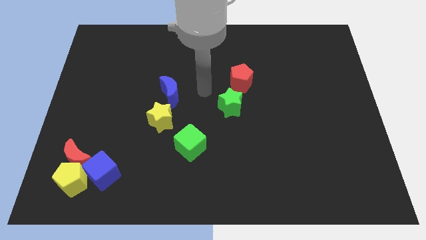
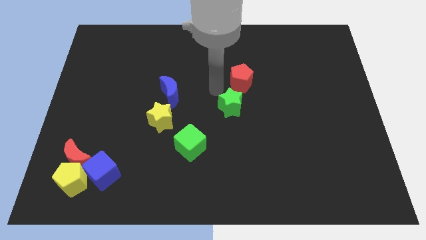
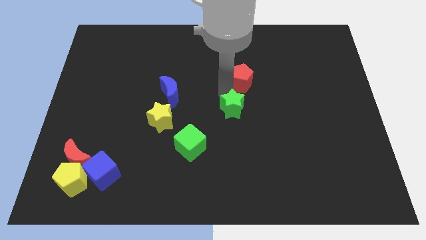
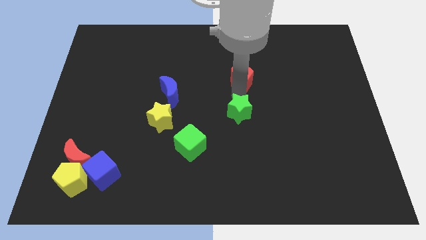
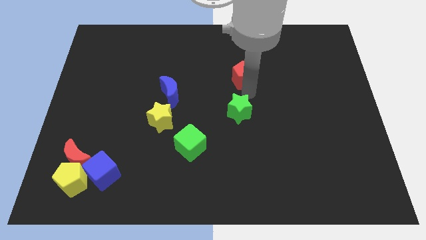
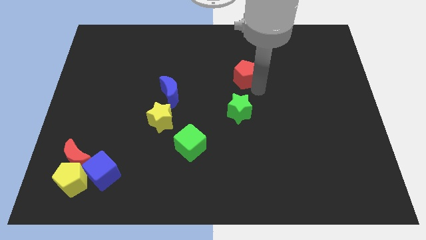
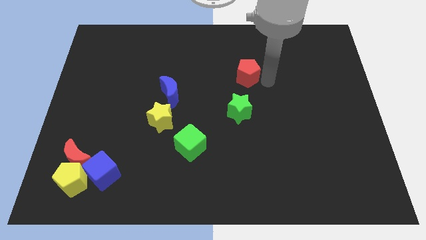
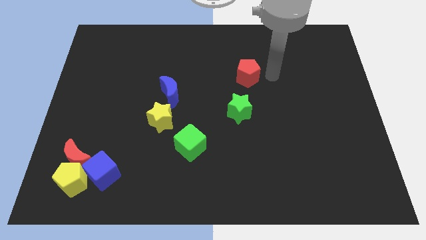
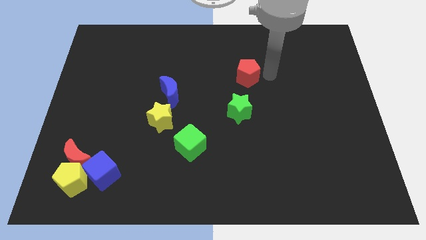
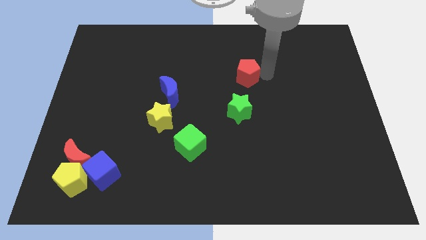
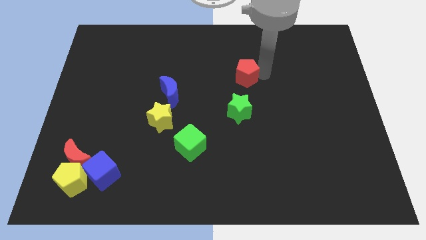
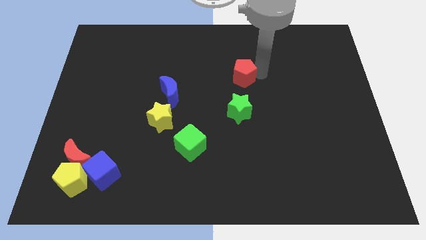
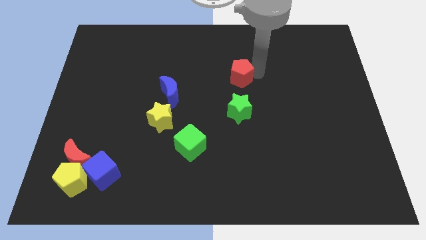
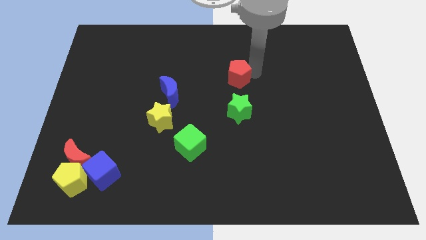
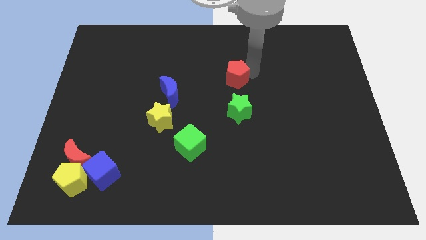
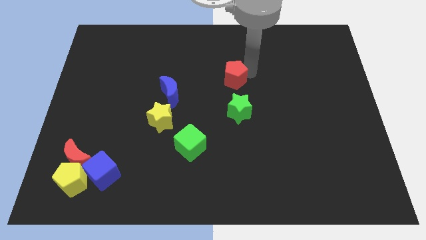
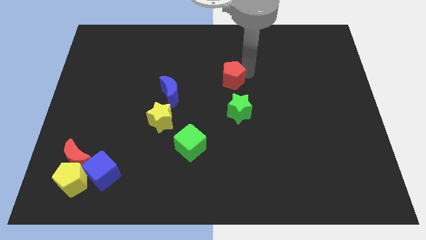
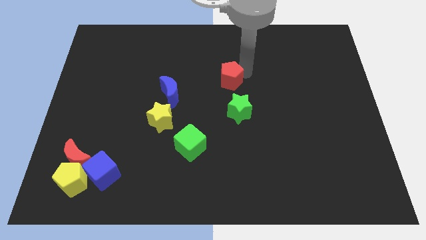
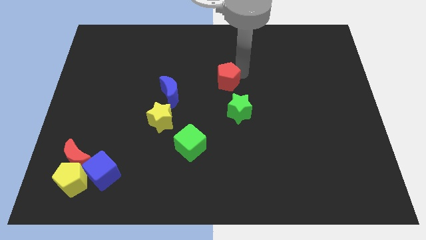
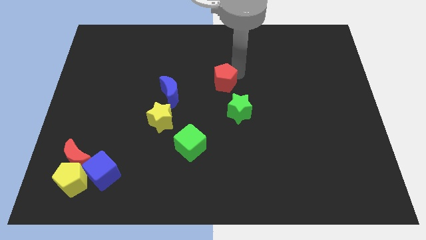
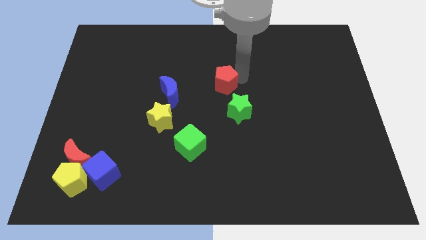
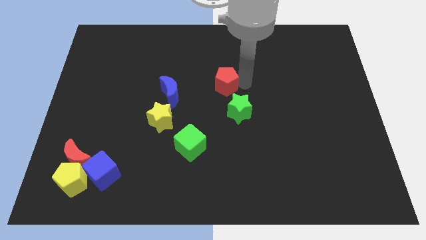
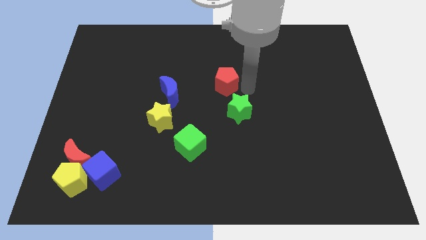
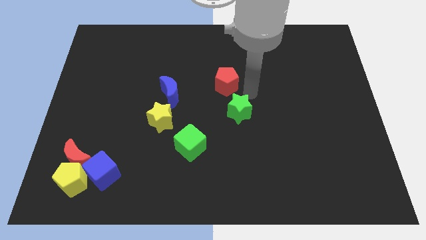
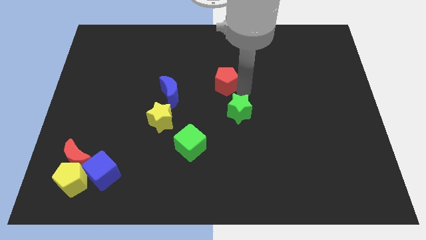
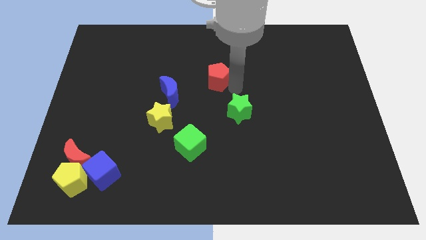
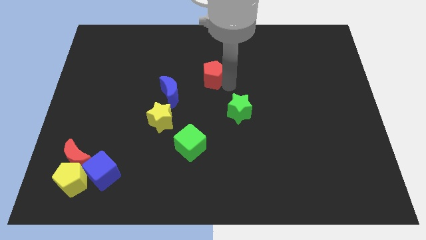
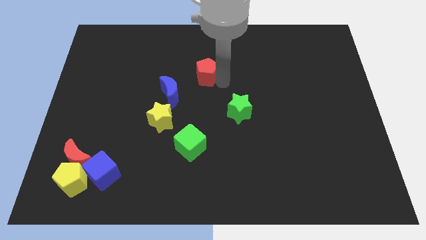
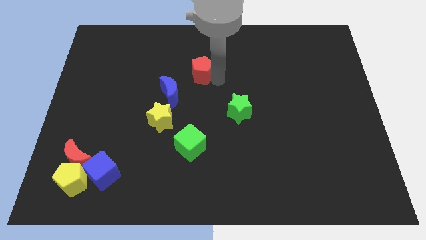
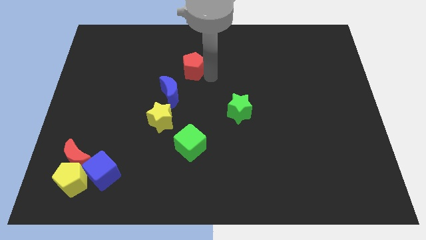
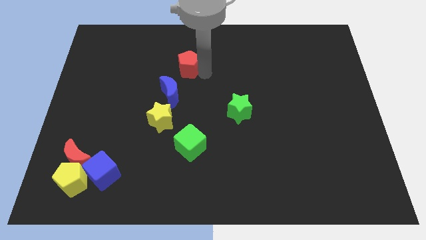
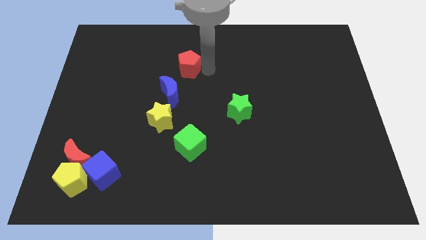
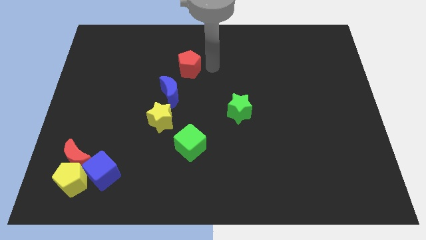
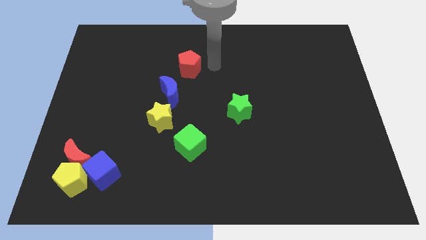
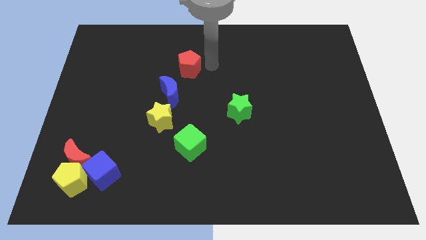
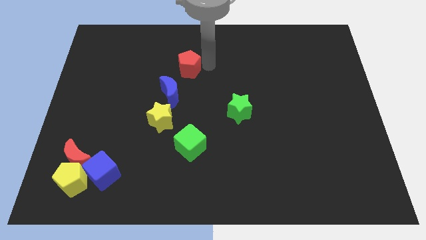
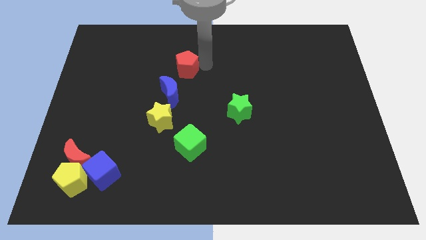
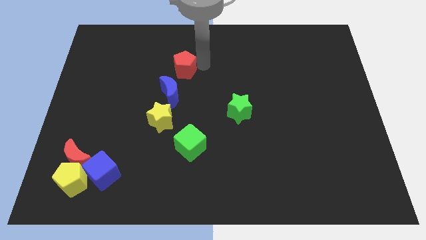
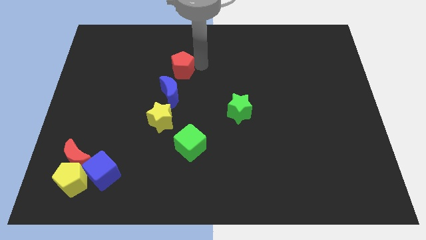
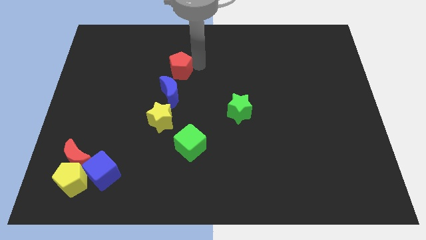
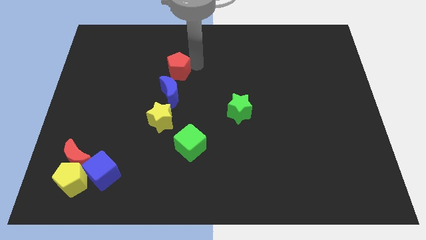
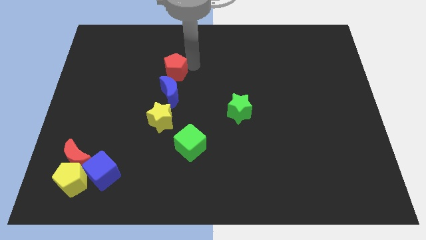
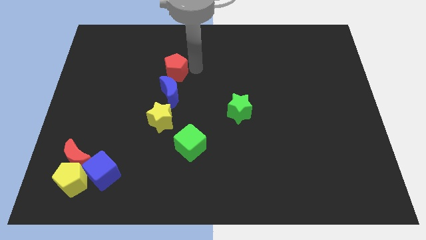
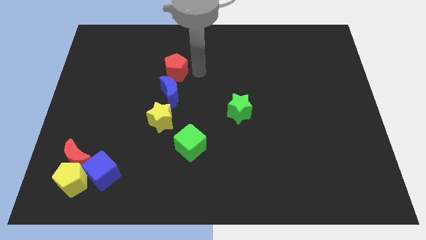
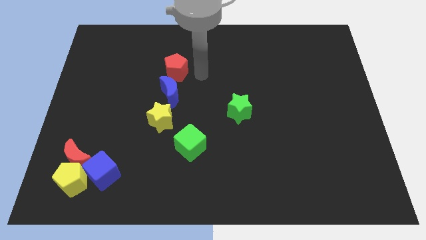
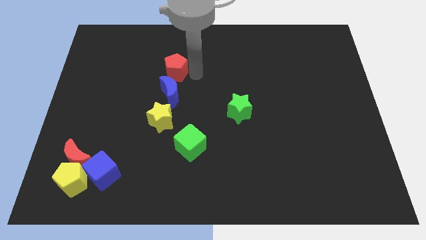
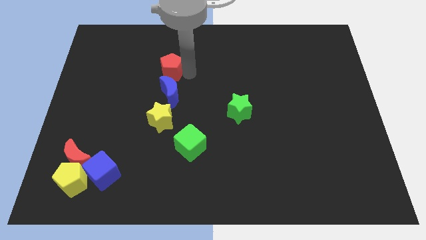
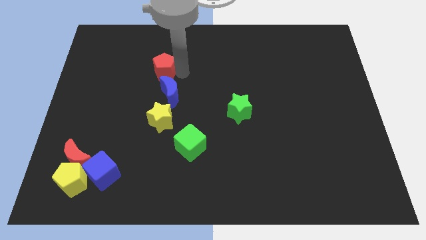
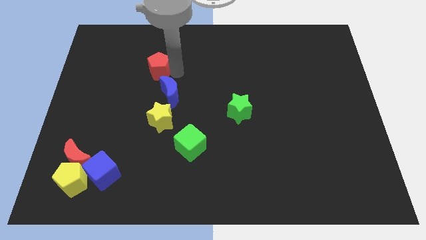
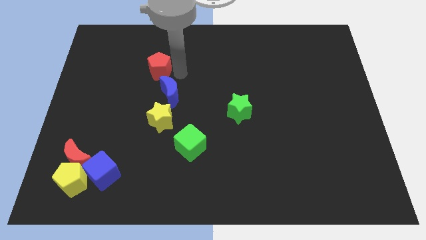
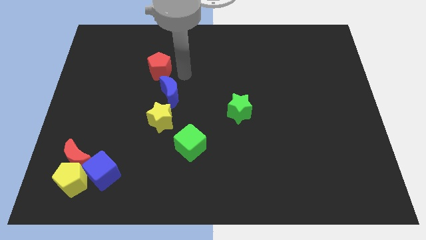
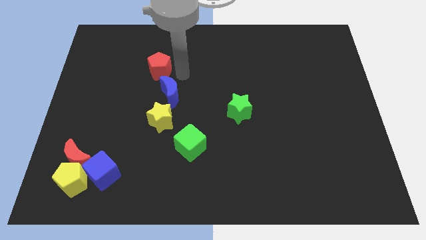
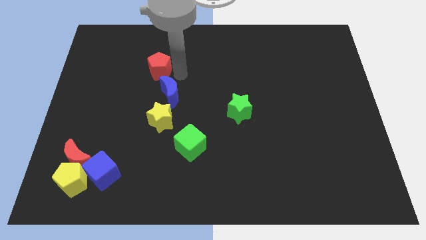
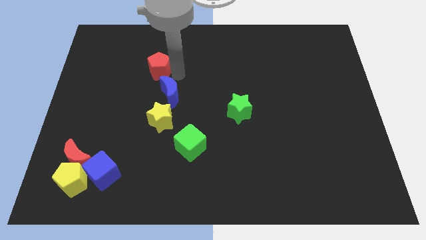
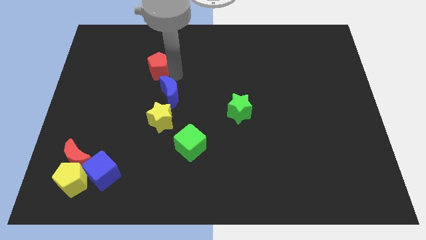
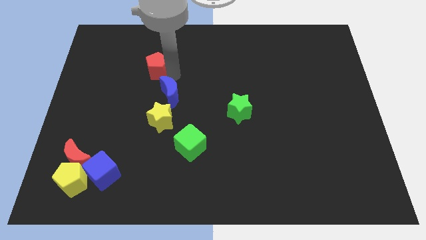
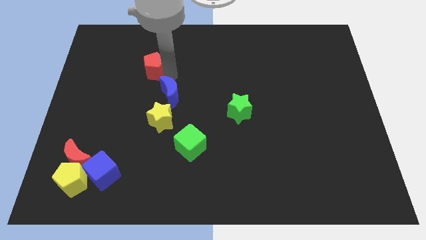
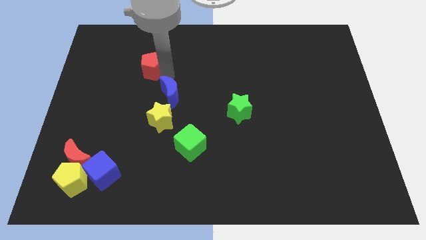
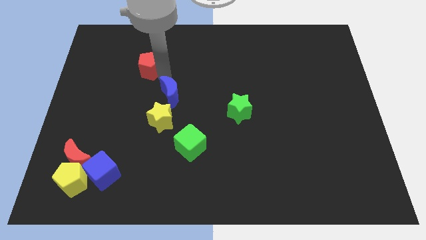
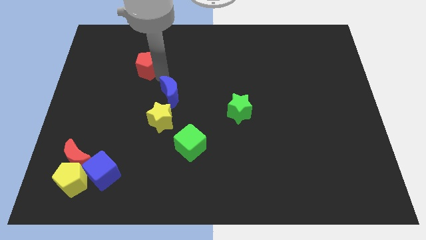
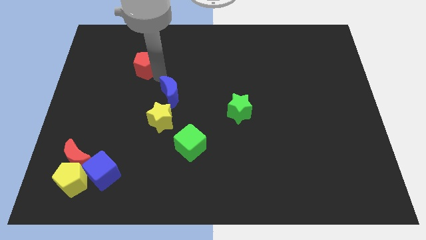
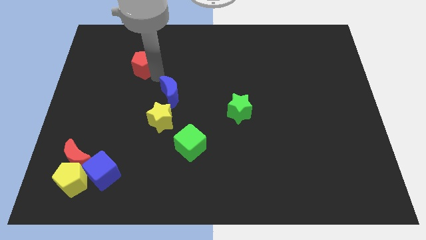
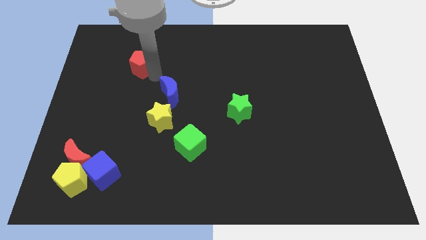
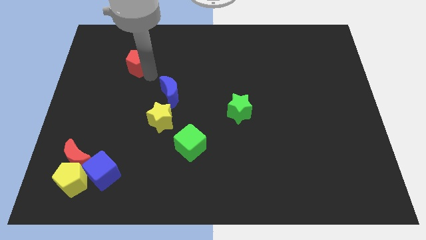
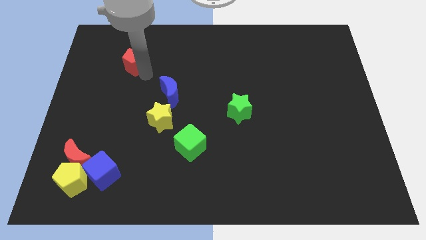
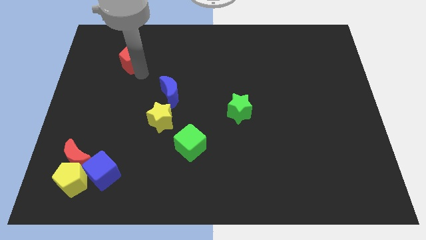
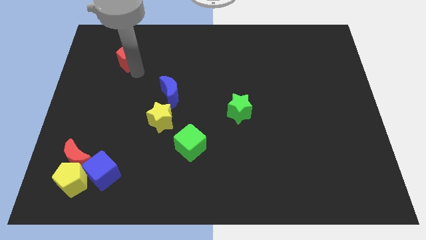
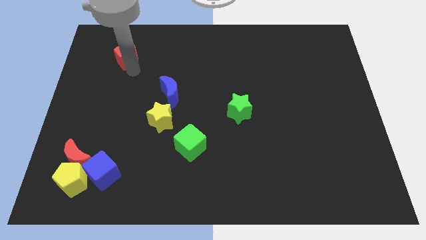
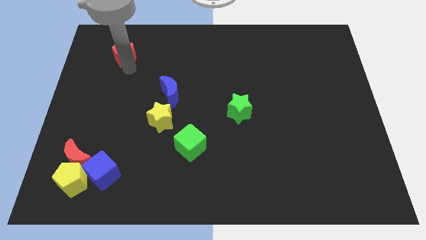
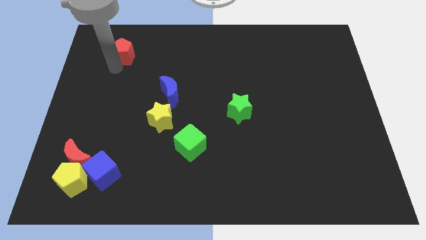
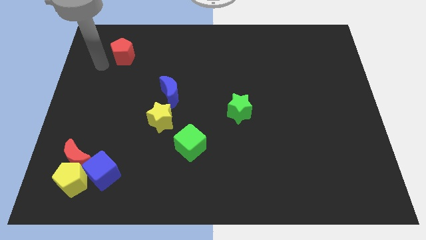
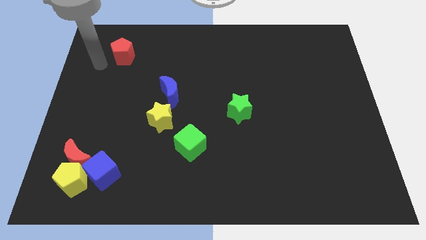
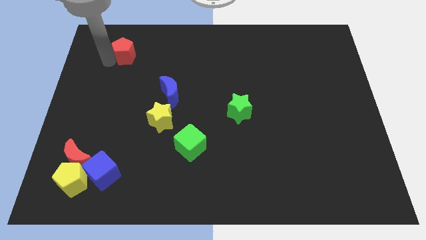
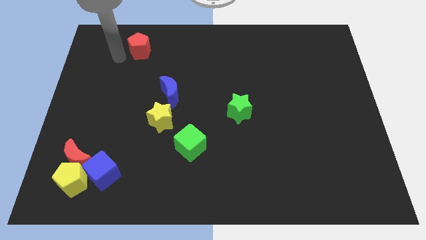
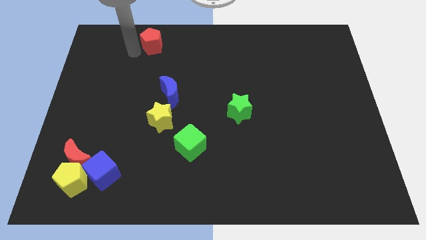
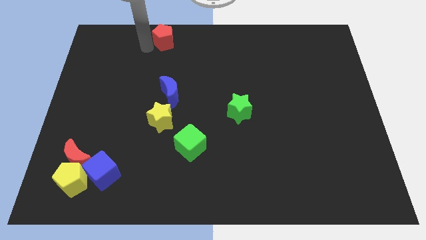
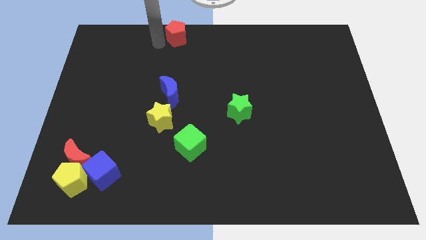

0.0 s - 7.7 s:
put the red pentagon to the towards your base
